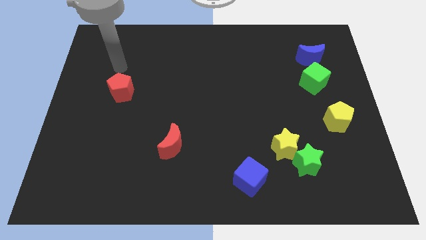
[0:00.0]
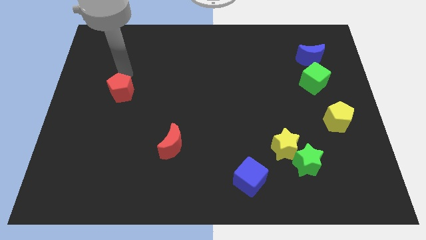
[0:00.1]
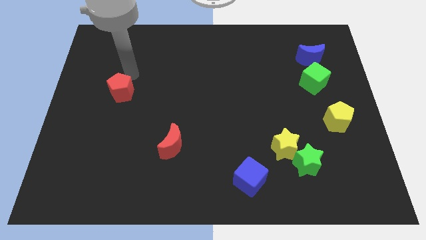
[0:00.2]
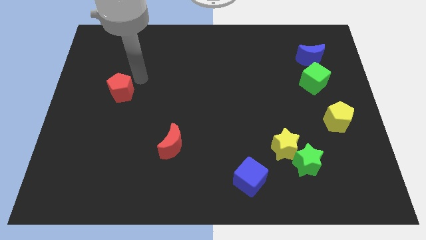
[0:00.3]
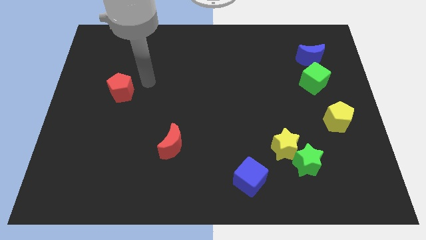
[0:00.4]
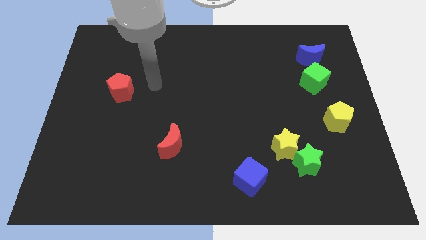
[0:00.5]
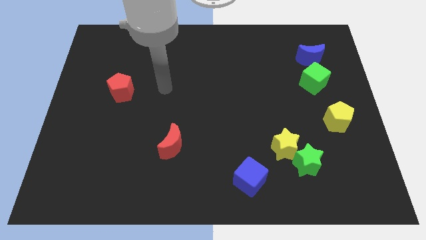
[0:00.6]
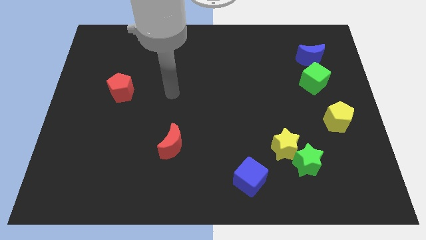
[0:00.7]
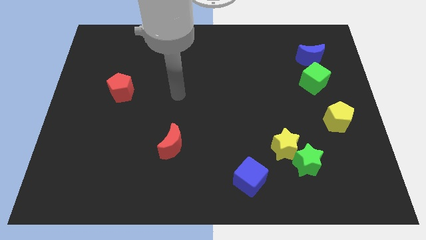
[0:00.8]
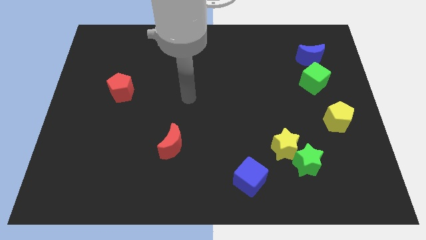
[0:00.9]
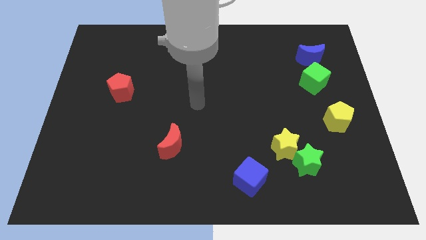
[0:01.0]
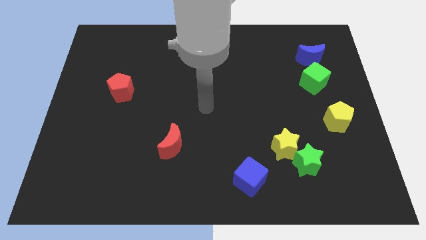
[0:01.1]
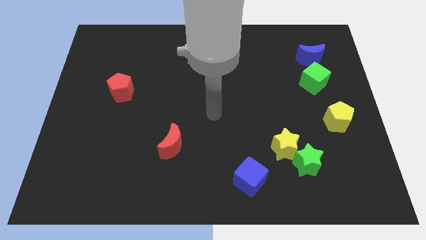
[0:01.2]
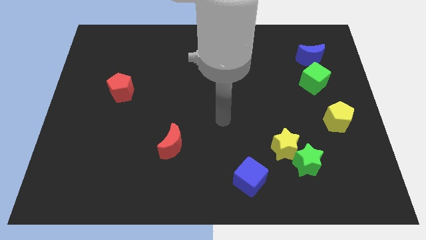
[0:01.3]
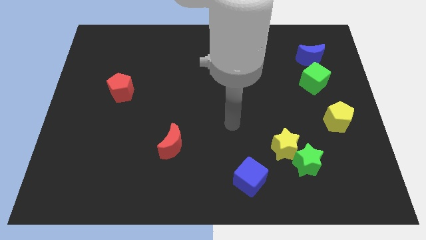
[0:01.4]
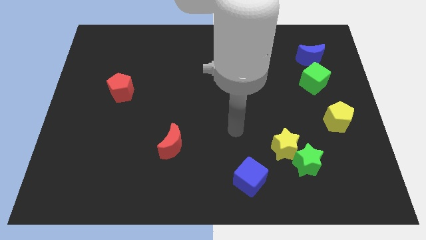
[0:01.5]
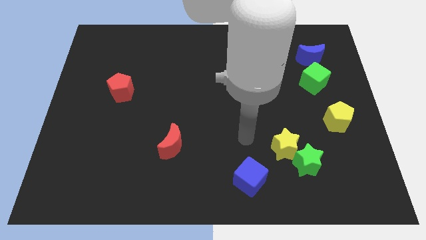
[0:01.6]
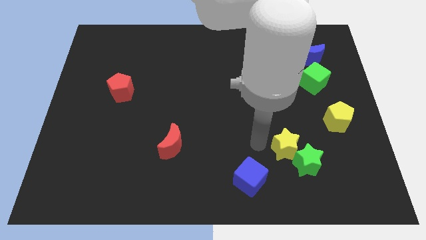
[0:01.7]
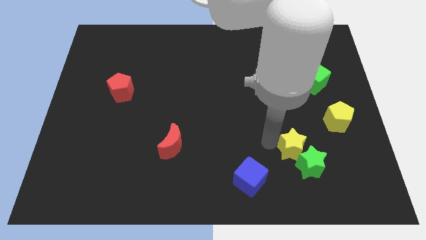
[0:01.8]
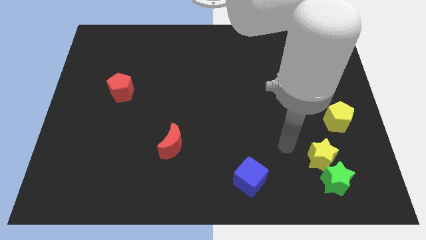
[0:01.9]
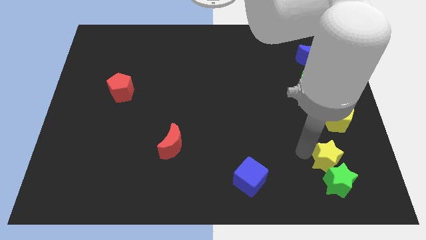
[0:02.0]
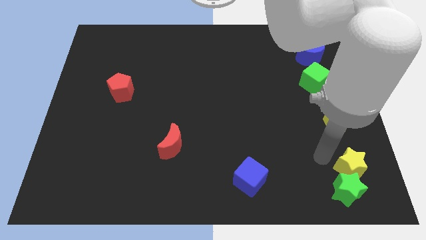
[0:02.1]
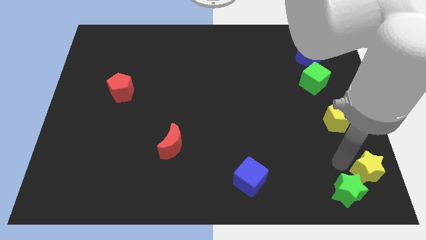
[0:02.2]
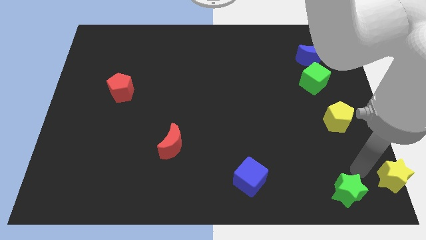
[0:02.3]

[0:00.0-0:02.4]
move the green star away from the yellow star

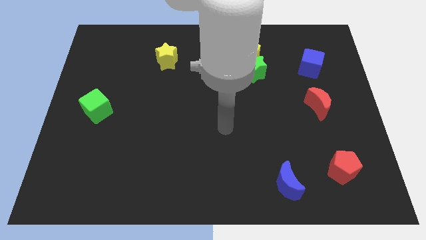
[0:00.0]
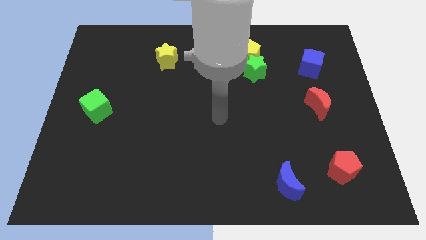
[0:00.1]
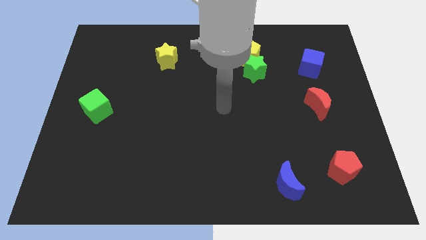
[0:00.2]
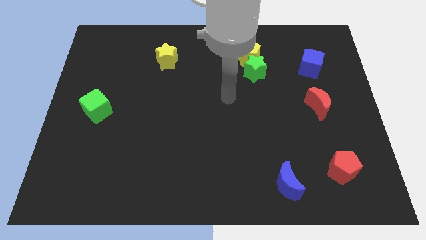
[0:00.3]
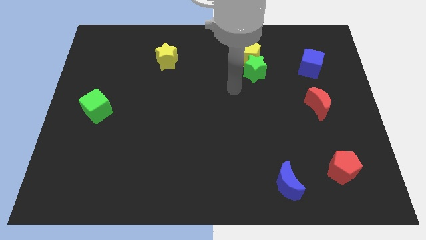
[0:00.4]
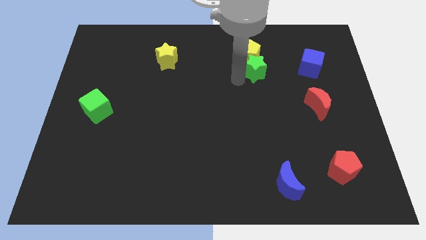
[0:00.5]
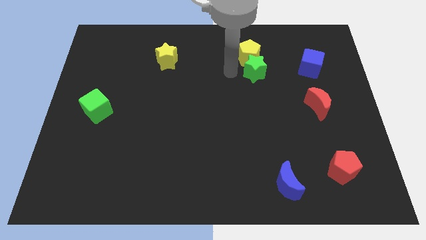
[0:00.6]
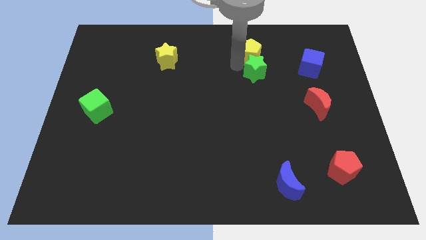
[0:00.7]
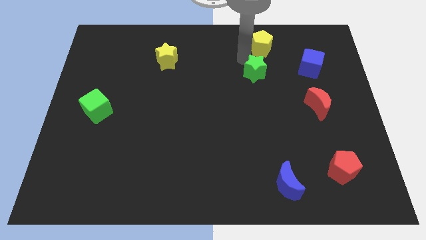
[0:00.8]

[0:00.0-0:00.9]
pull the green star apart from the yellow pentagon

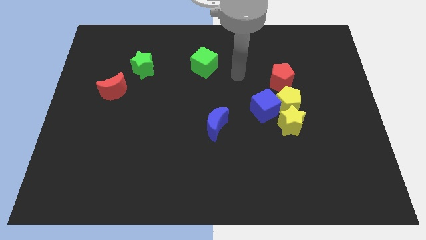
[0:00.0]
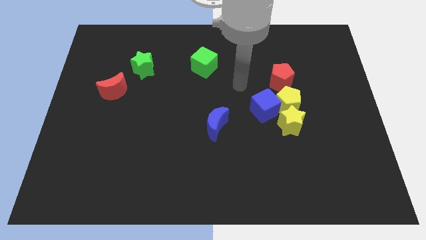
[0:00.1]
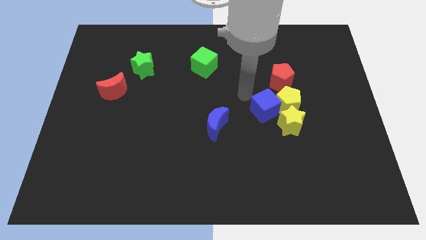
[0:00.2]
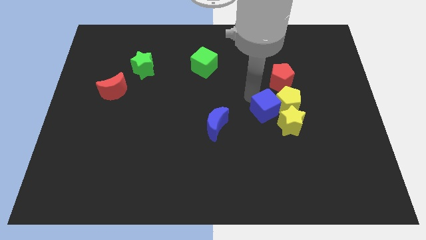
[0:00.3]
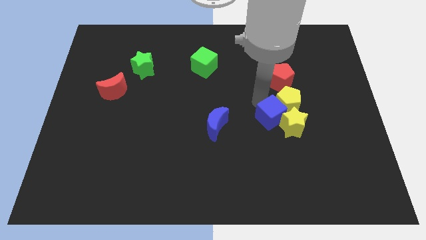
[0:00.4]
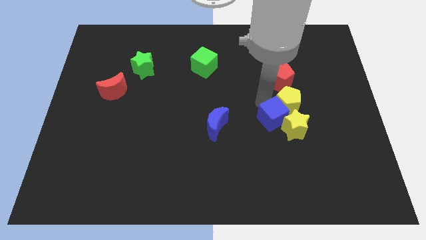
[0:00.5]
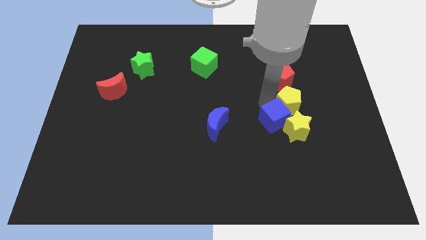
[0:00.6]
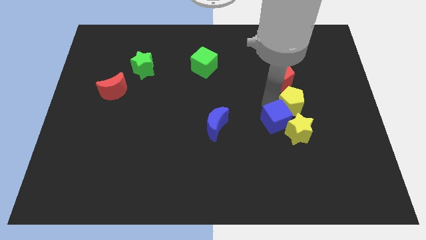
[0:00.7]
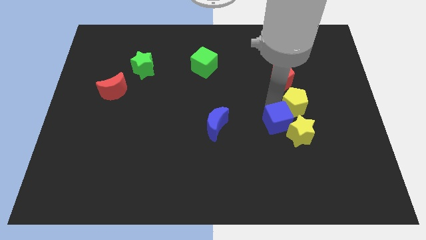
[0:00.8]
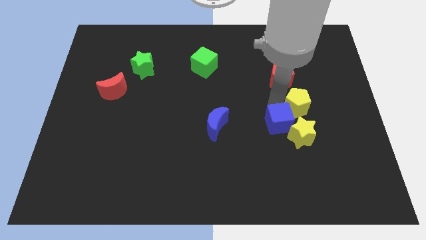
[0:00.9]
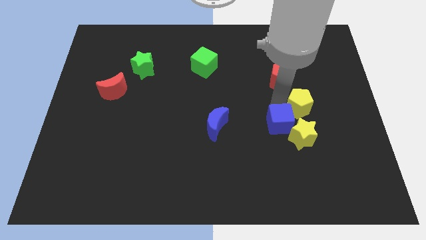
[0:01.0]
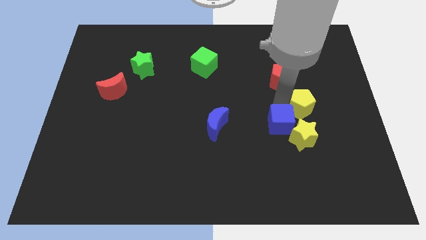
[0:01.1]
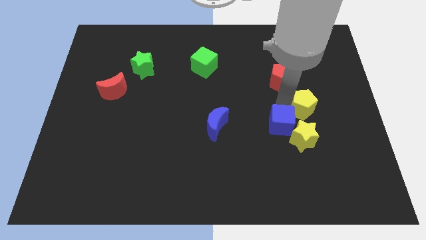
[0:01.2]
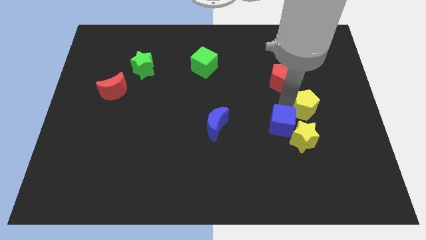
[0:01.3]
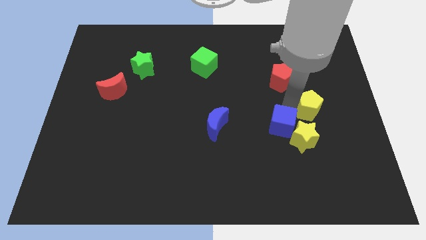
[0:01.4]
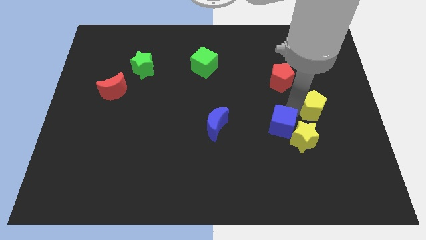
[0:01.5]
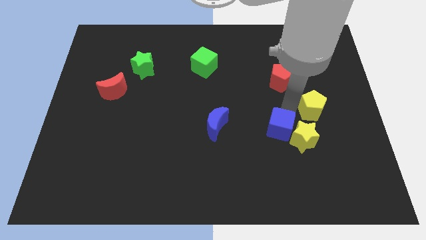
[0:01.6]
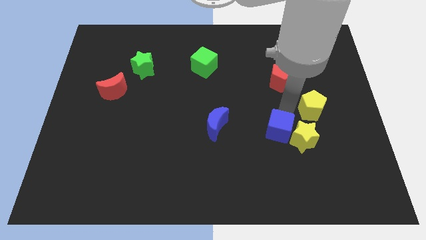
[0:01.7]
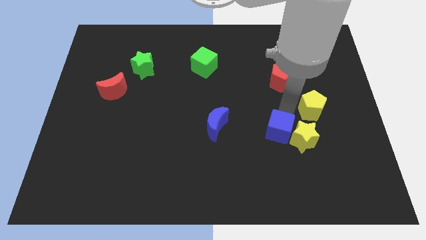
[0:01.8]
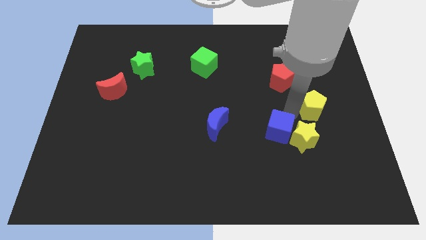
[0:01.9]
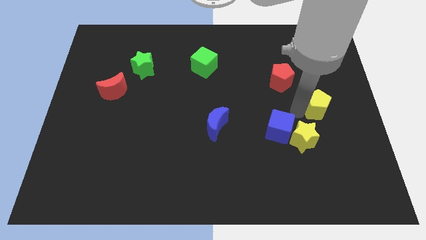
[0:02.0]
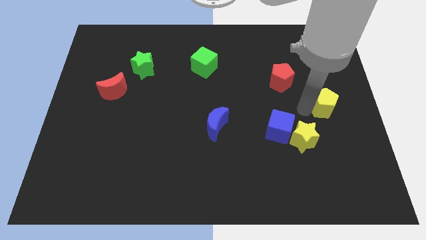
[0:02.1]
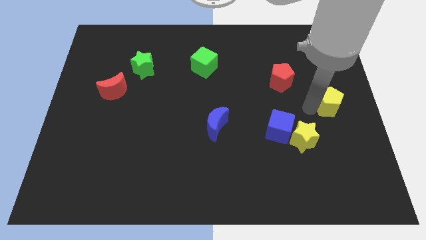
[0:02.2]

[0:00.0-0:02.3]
move the yellow pentagon away from the blue cube, yellow star, and red pentagon

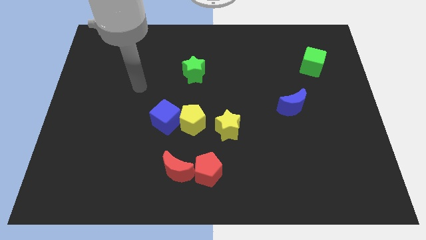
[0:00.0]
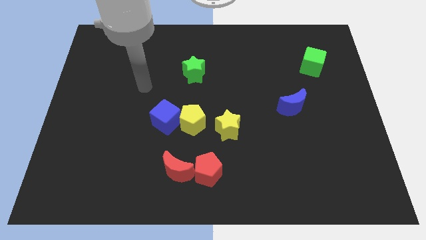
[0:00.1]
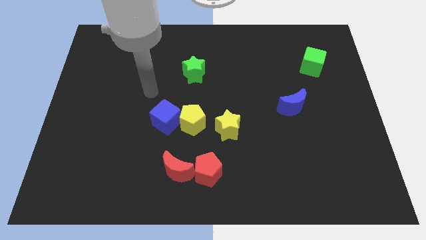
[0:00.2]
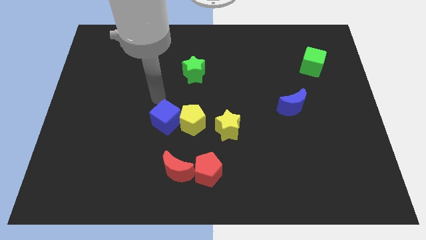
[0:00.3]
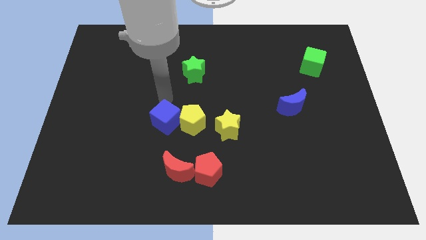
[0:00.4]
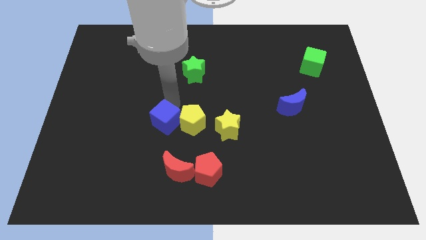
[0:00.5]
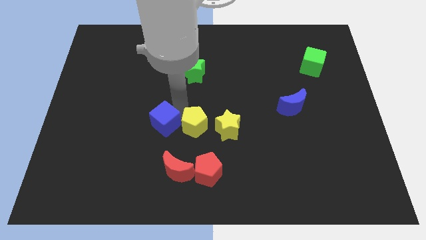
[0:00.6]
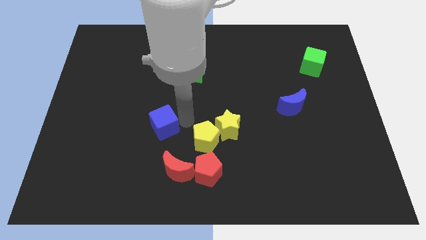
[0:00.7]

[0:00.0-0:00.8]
separate the blue cube from the yellow pentagon

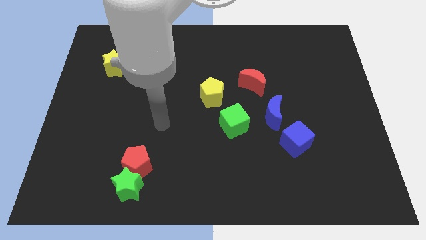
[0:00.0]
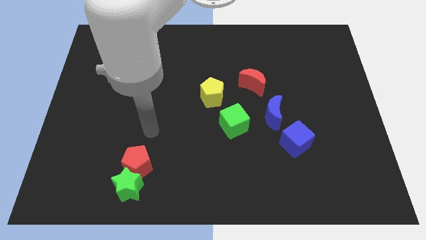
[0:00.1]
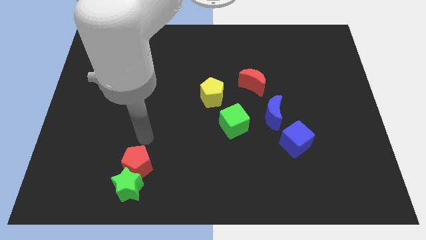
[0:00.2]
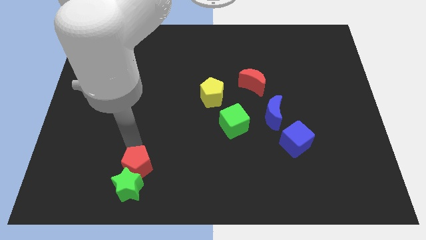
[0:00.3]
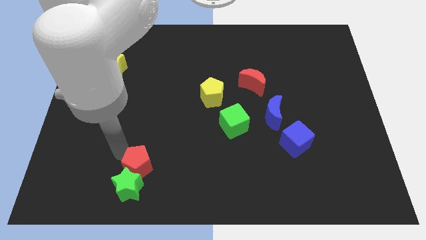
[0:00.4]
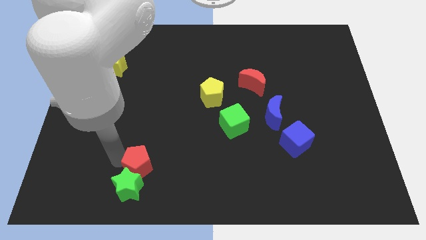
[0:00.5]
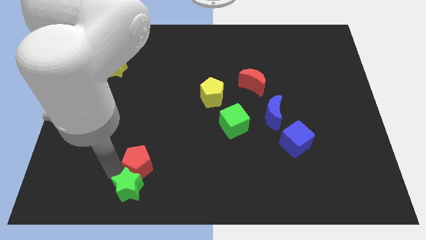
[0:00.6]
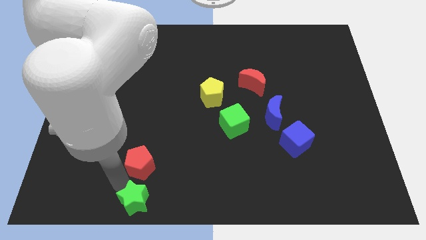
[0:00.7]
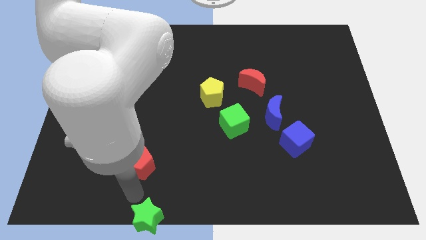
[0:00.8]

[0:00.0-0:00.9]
pull the red pentagon apart from the green star

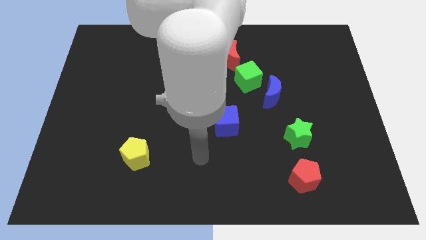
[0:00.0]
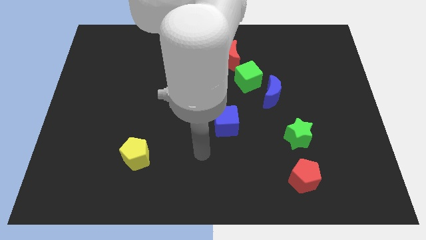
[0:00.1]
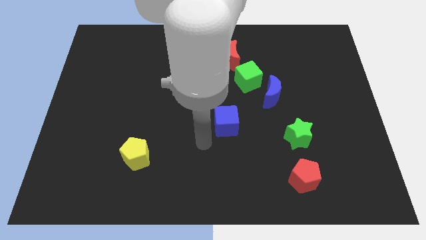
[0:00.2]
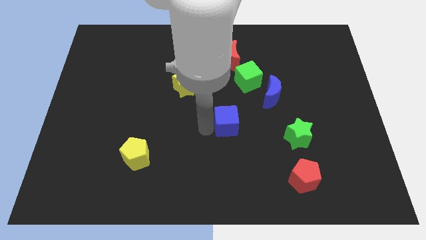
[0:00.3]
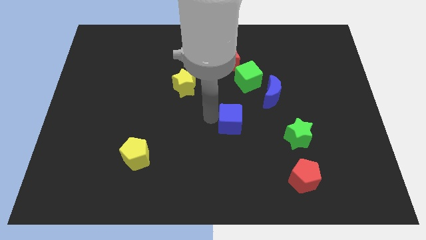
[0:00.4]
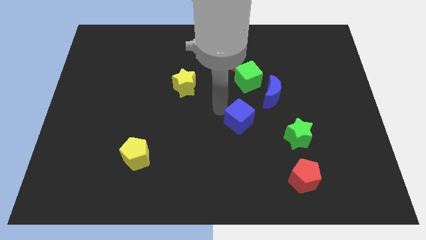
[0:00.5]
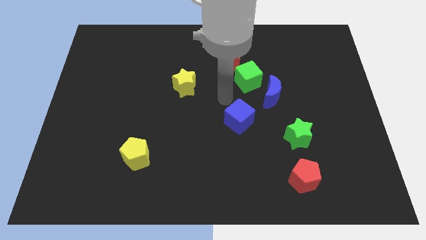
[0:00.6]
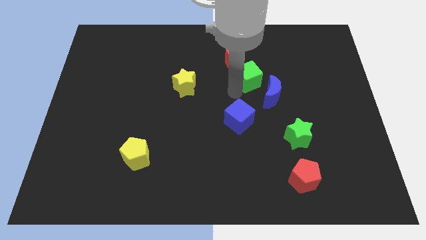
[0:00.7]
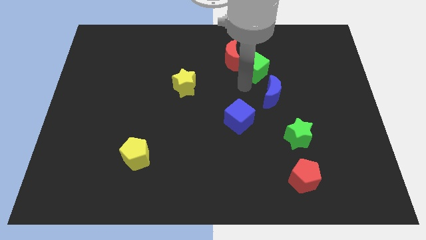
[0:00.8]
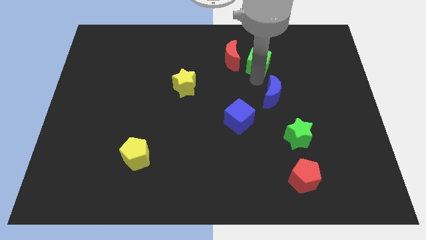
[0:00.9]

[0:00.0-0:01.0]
move the blue moon away from the green cube

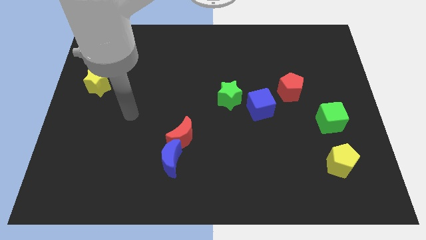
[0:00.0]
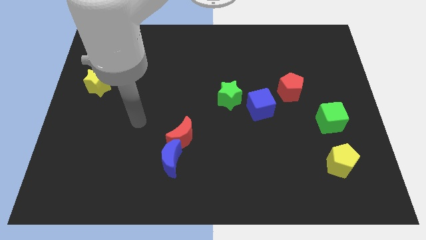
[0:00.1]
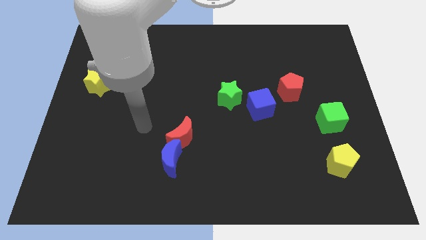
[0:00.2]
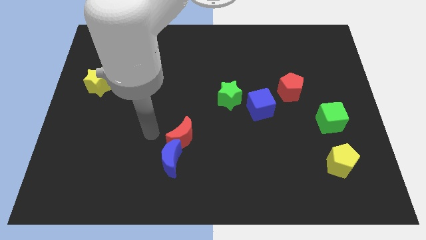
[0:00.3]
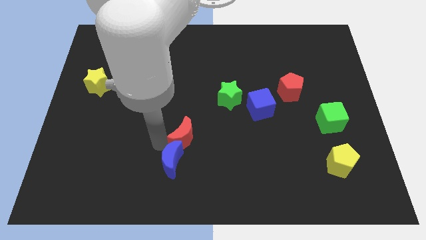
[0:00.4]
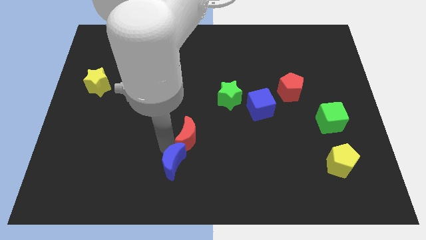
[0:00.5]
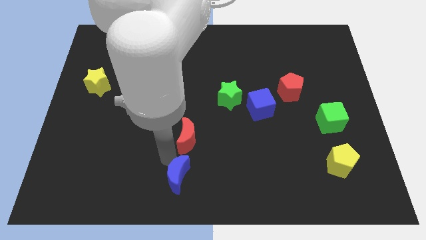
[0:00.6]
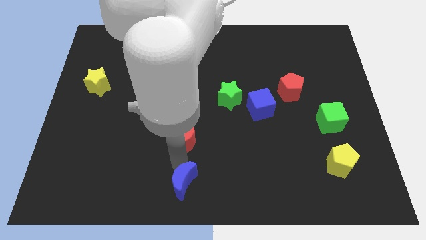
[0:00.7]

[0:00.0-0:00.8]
pull the red moon apart from the blue moon

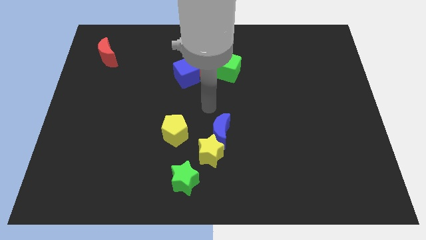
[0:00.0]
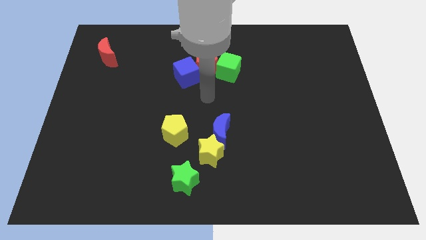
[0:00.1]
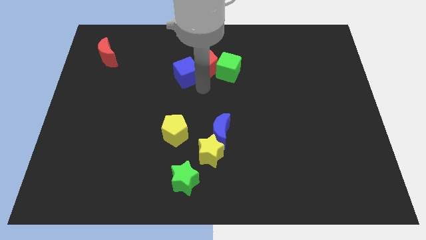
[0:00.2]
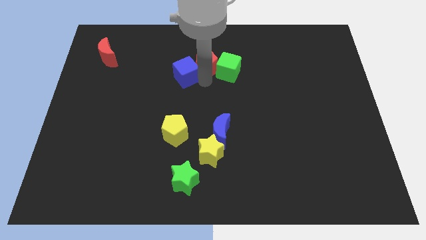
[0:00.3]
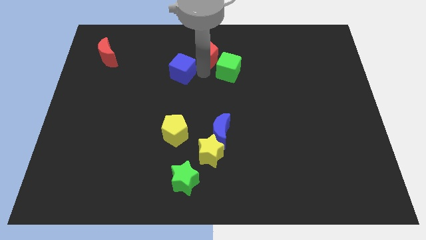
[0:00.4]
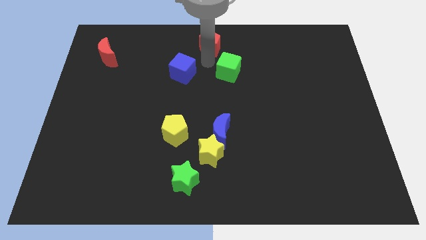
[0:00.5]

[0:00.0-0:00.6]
separate the green cube from the red pentagon
